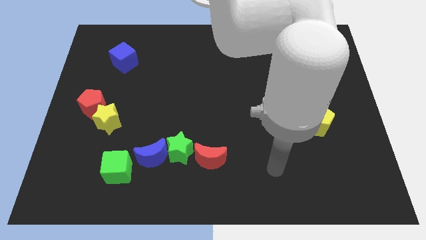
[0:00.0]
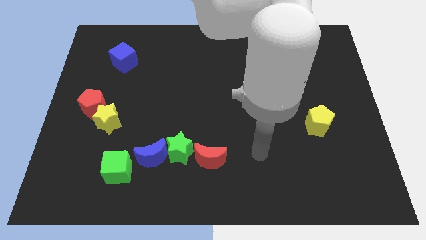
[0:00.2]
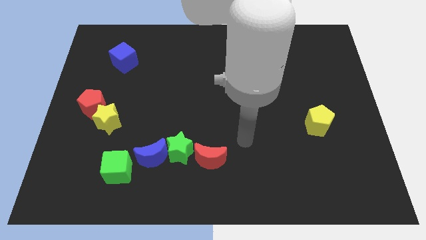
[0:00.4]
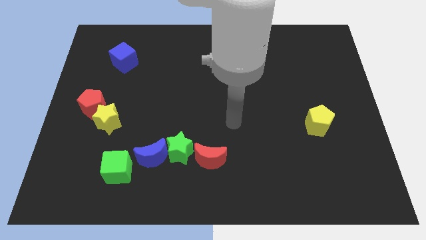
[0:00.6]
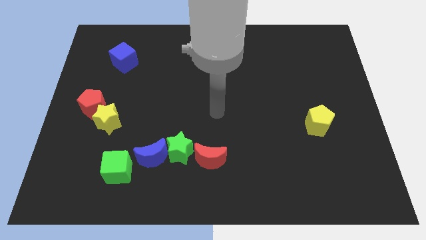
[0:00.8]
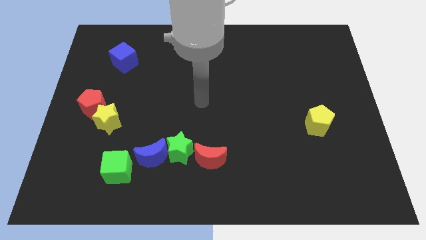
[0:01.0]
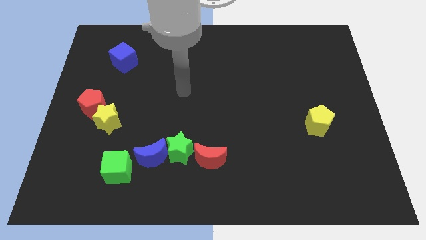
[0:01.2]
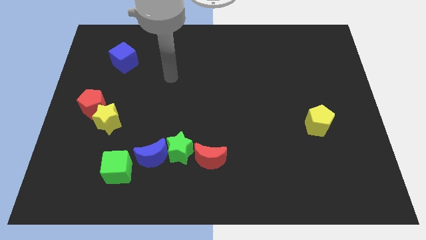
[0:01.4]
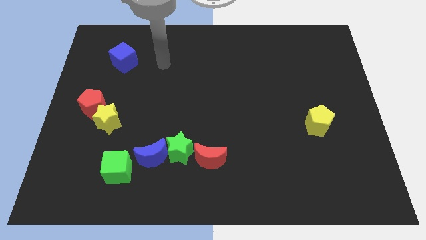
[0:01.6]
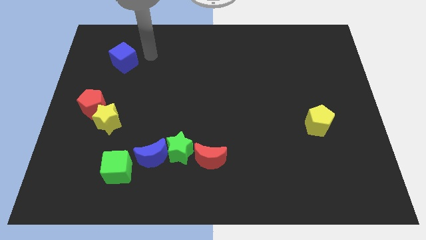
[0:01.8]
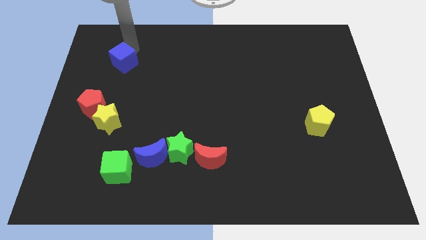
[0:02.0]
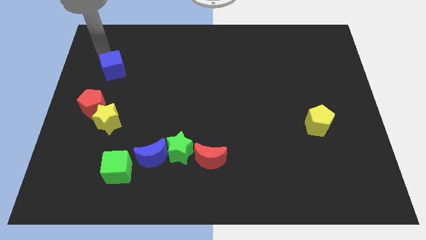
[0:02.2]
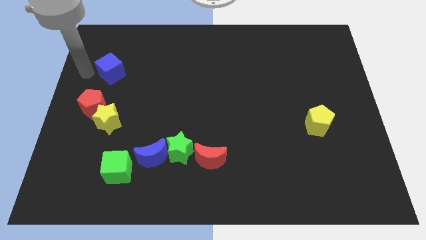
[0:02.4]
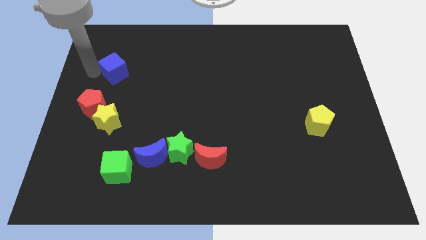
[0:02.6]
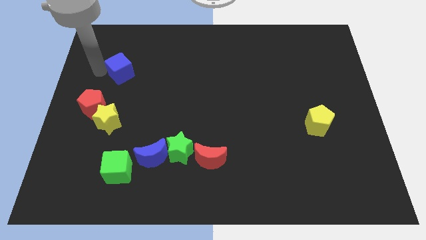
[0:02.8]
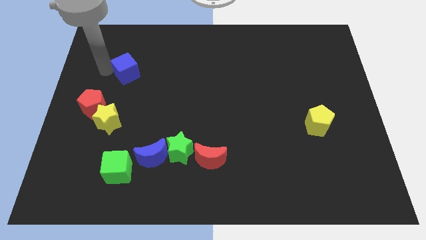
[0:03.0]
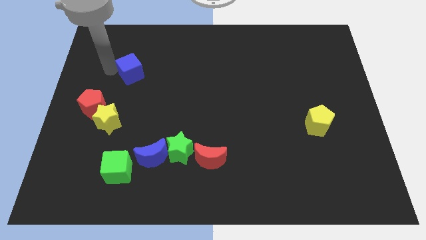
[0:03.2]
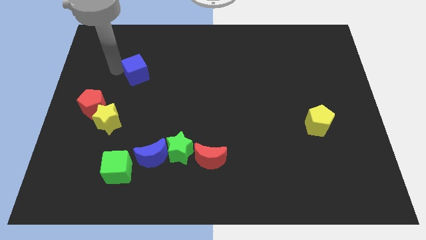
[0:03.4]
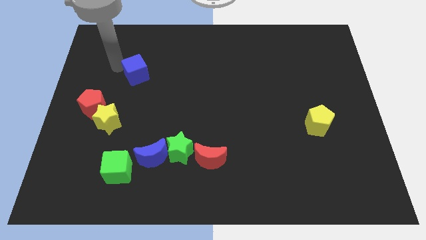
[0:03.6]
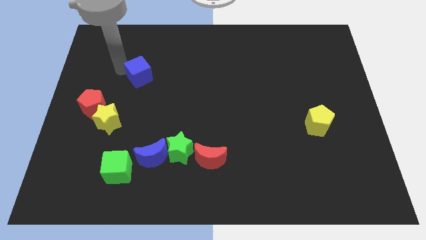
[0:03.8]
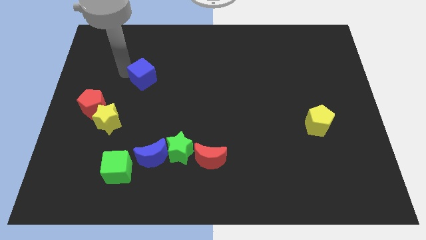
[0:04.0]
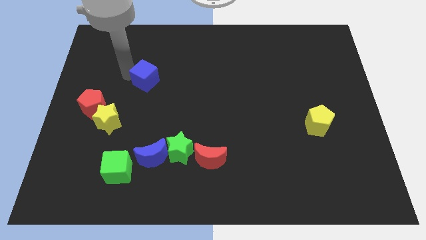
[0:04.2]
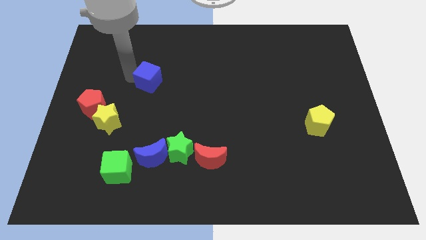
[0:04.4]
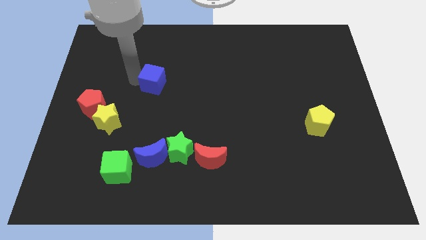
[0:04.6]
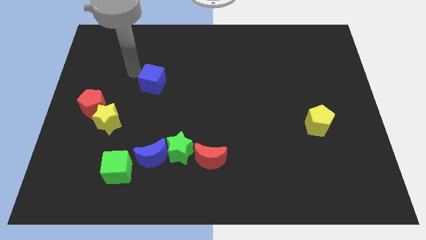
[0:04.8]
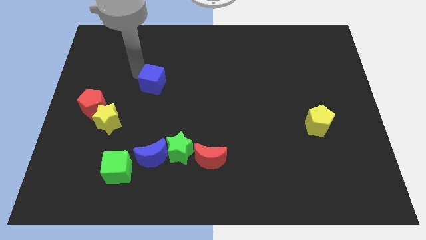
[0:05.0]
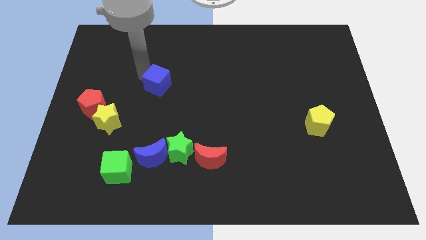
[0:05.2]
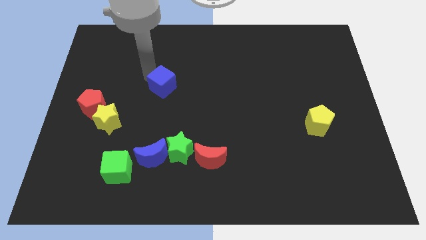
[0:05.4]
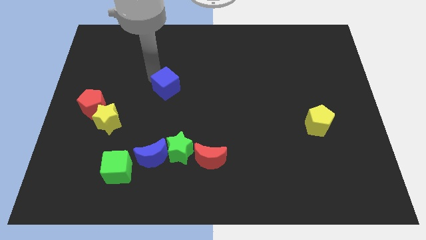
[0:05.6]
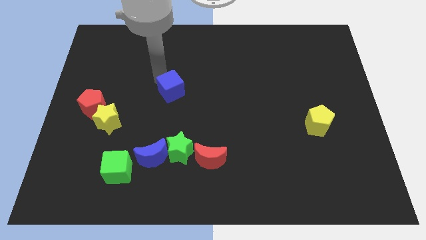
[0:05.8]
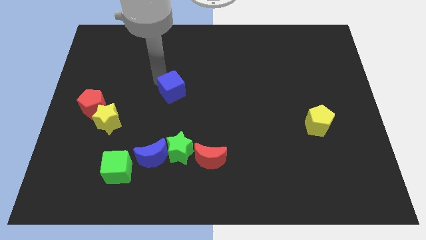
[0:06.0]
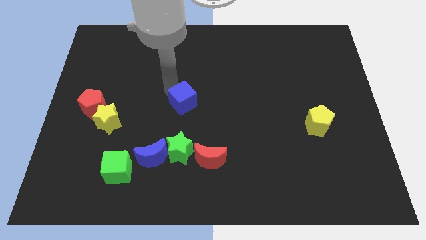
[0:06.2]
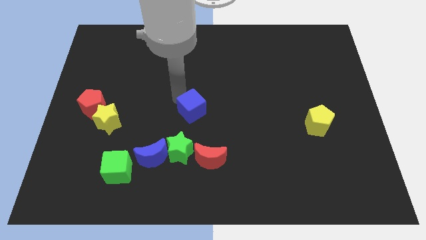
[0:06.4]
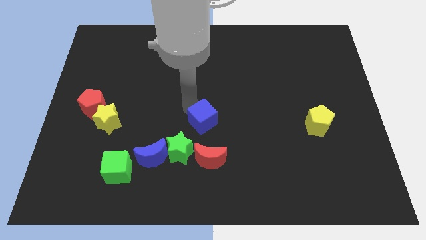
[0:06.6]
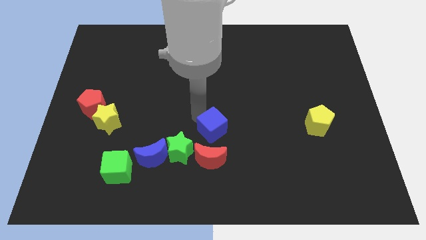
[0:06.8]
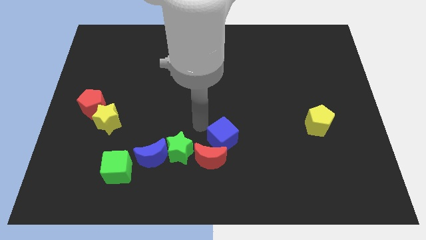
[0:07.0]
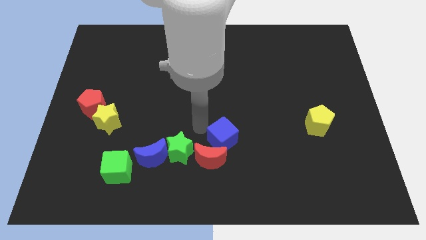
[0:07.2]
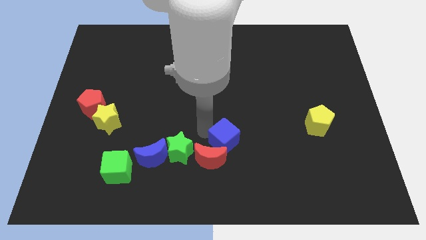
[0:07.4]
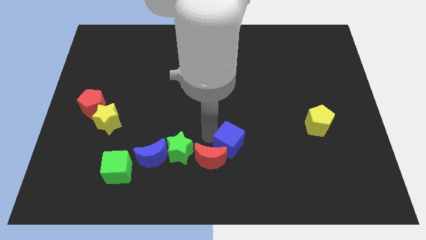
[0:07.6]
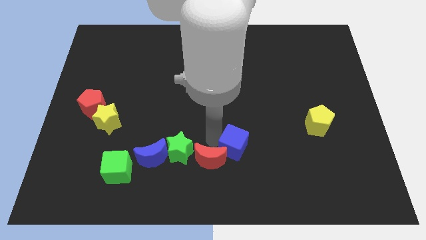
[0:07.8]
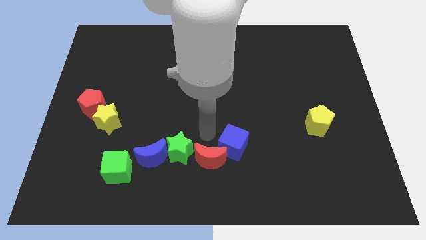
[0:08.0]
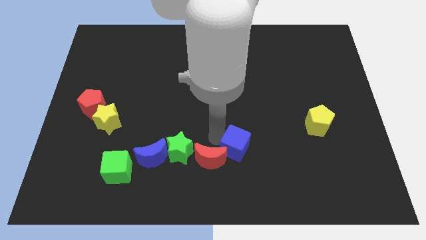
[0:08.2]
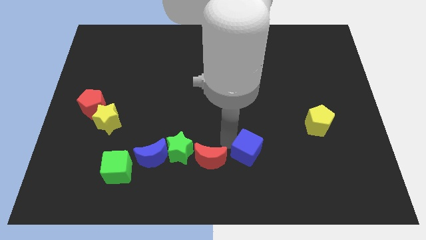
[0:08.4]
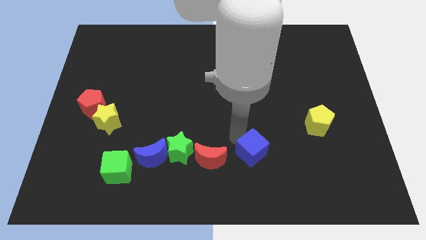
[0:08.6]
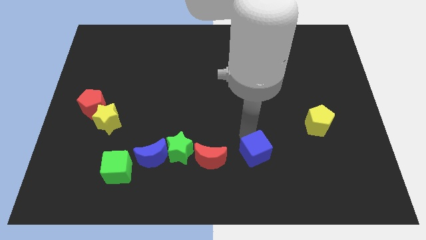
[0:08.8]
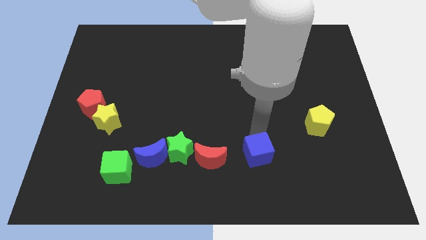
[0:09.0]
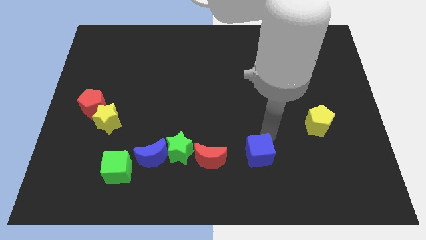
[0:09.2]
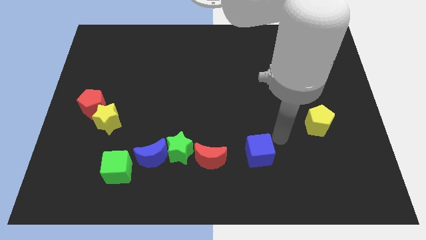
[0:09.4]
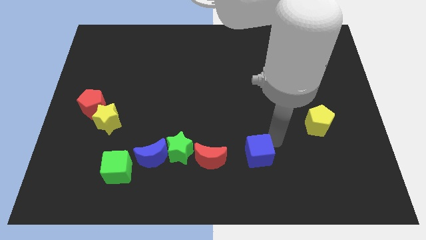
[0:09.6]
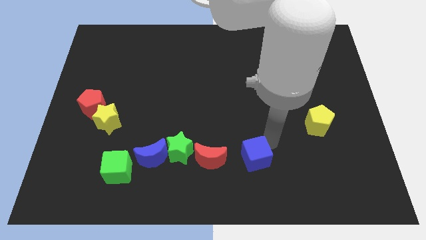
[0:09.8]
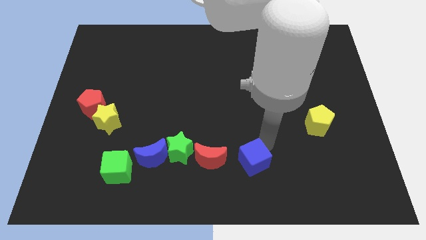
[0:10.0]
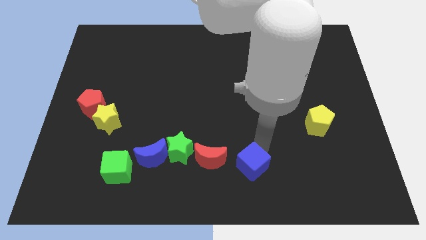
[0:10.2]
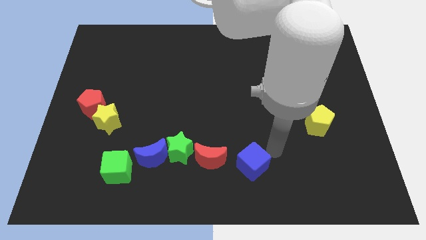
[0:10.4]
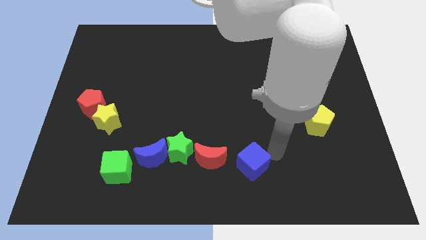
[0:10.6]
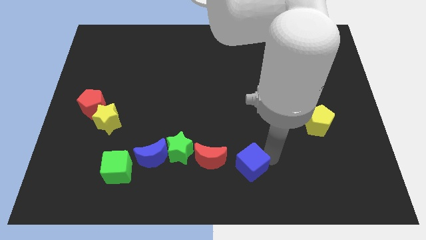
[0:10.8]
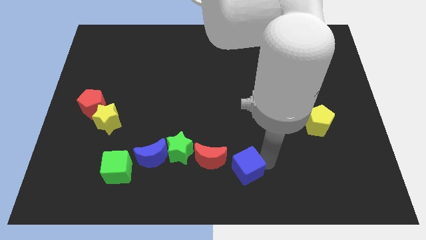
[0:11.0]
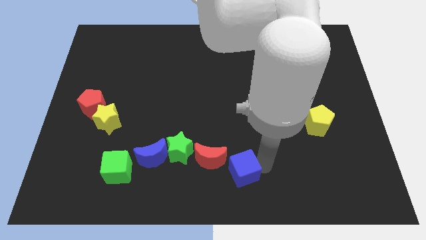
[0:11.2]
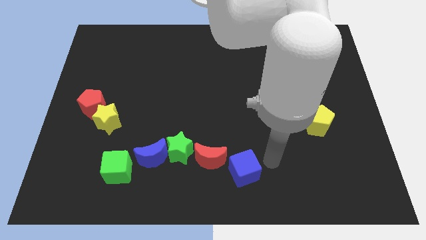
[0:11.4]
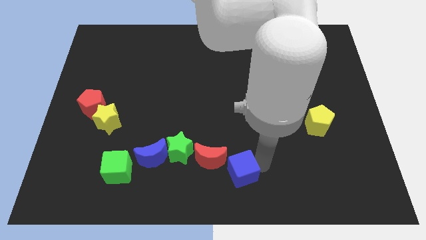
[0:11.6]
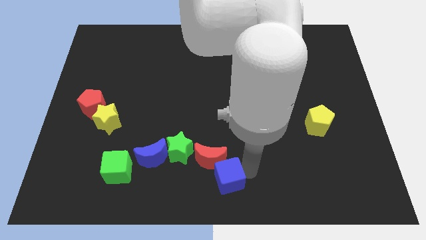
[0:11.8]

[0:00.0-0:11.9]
put the blue cube diagonally down and to the right of the green star

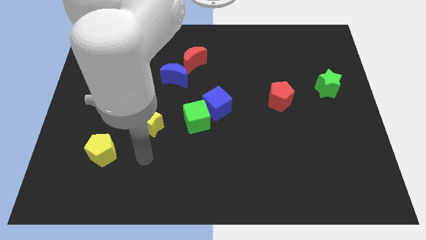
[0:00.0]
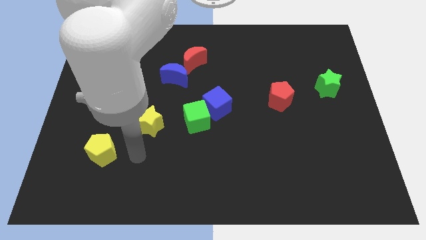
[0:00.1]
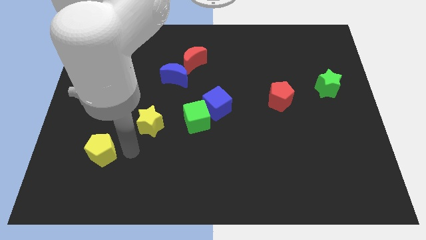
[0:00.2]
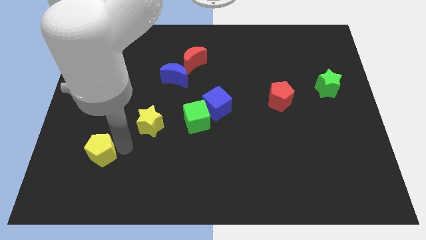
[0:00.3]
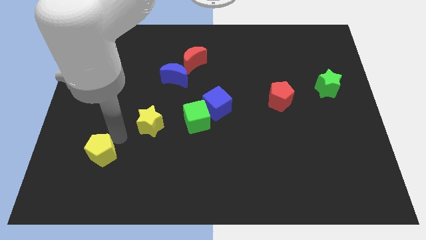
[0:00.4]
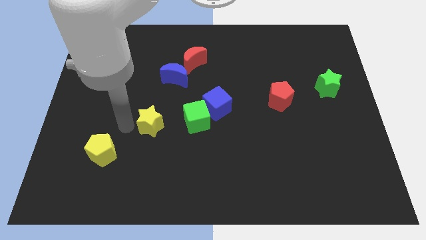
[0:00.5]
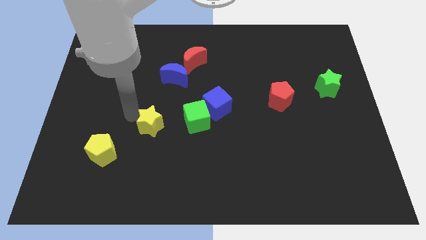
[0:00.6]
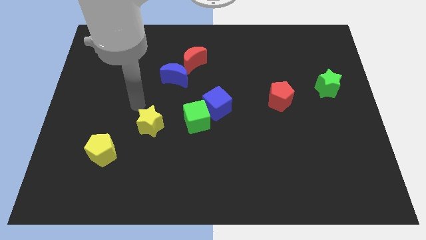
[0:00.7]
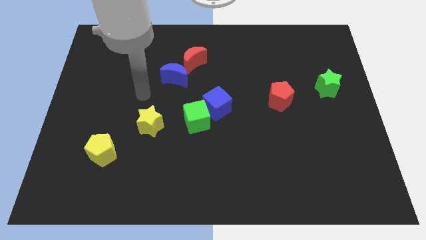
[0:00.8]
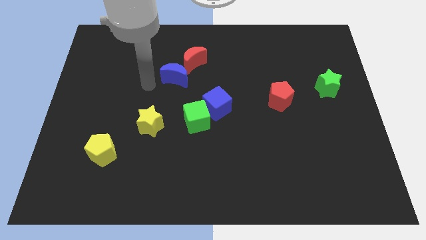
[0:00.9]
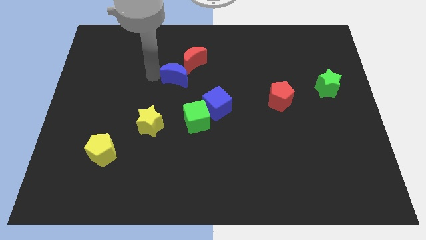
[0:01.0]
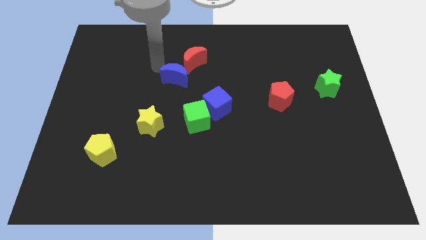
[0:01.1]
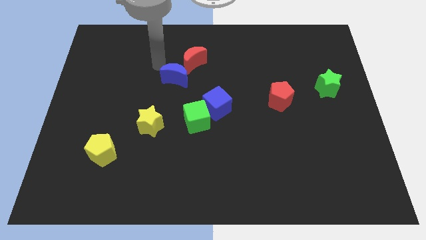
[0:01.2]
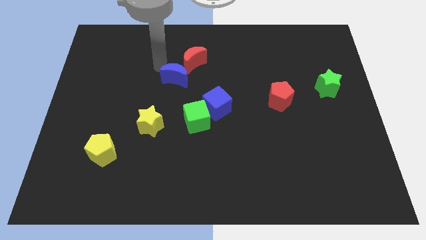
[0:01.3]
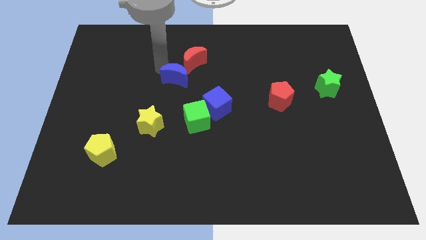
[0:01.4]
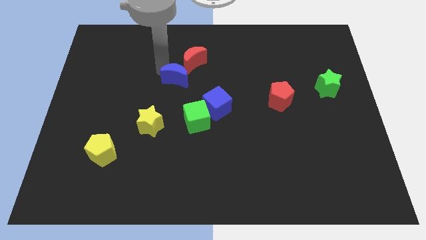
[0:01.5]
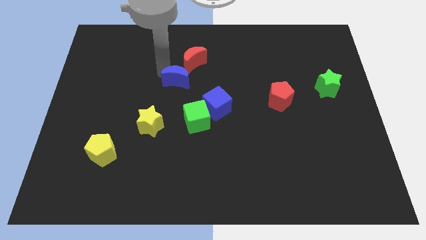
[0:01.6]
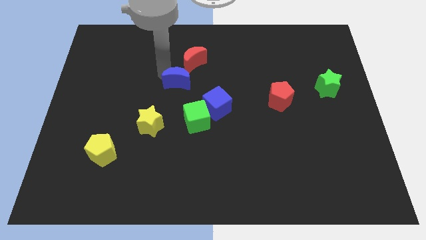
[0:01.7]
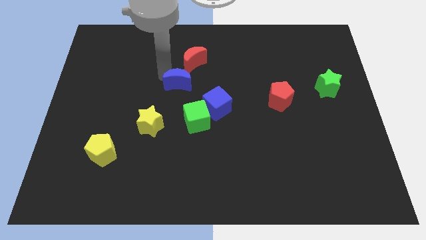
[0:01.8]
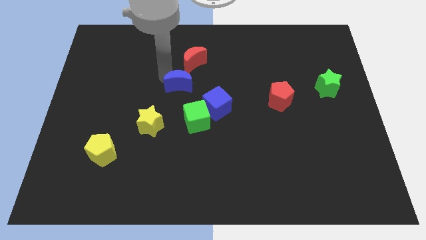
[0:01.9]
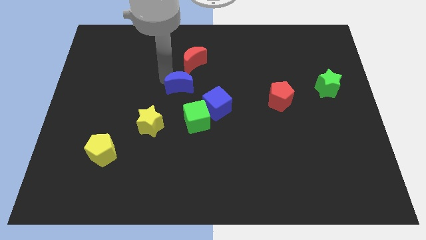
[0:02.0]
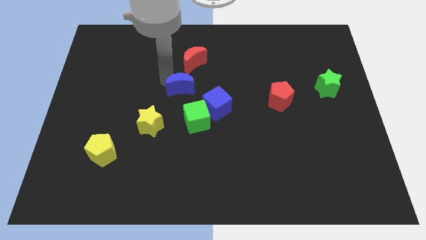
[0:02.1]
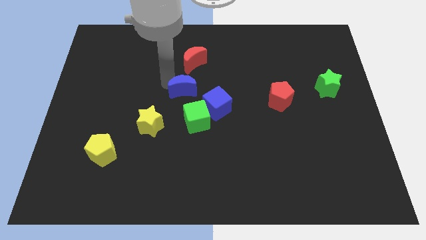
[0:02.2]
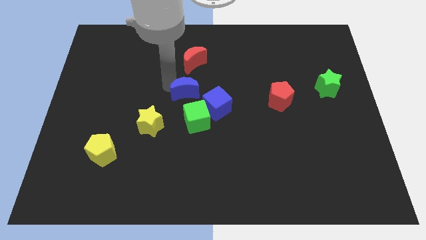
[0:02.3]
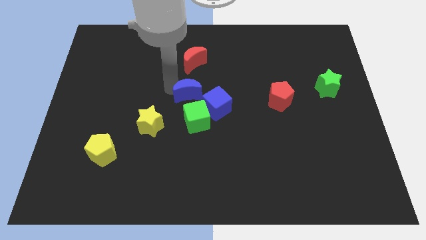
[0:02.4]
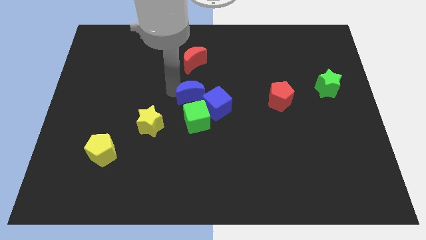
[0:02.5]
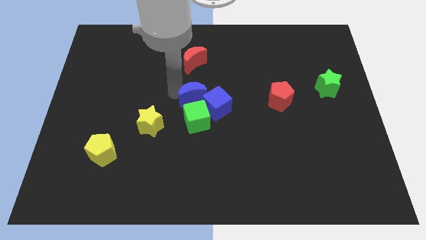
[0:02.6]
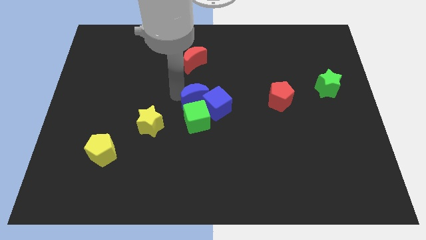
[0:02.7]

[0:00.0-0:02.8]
push the blue moon to the top right side of the green cube
